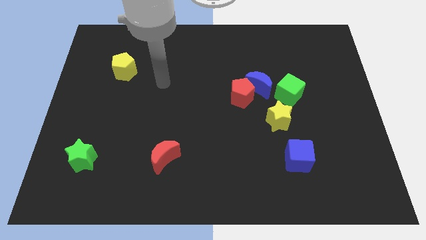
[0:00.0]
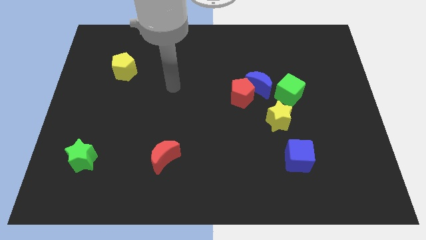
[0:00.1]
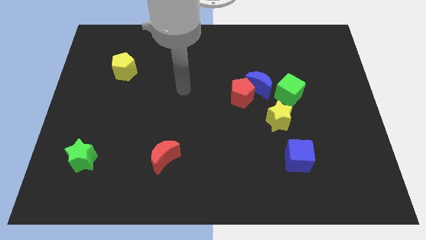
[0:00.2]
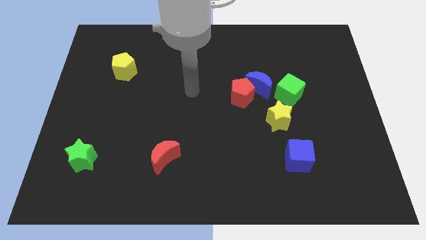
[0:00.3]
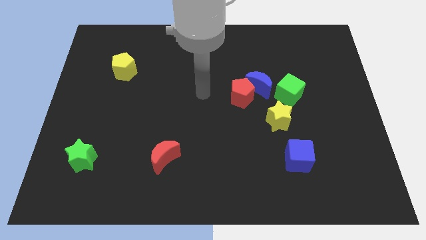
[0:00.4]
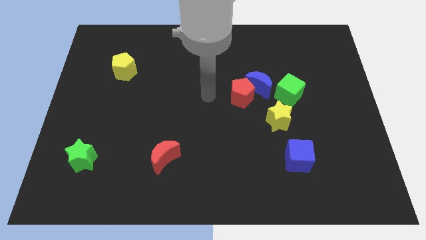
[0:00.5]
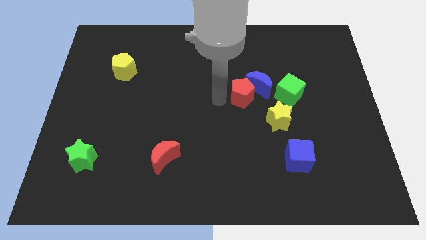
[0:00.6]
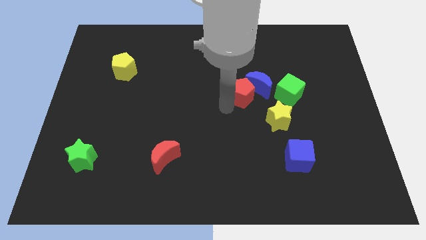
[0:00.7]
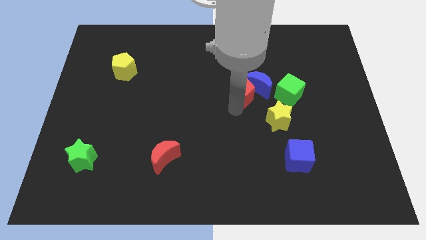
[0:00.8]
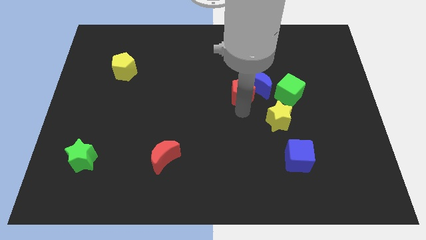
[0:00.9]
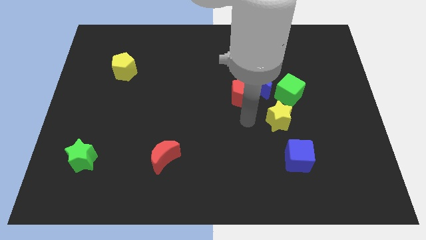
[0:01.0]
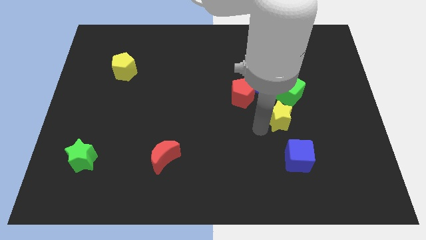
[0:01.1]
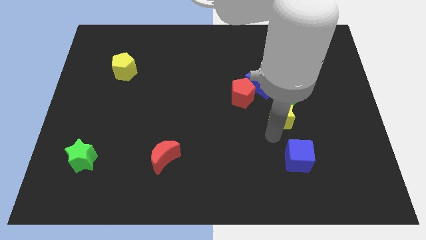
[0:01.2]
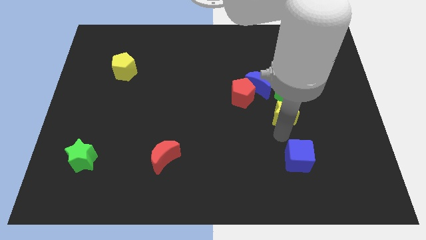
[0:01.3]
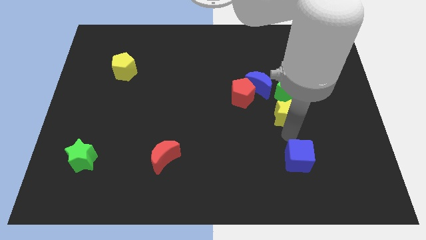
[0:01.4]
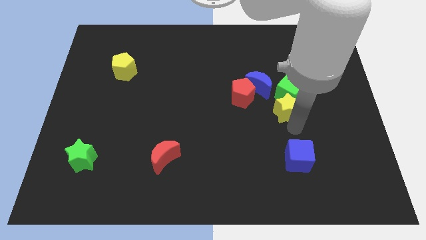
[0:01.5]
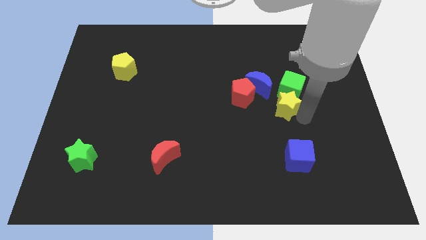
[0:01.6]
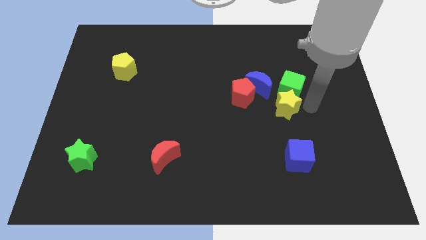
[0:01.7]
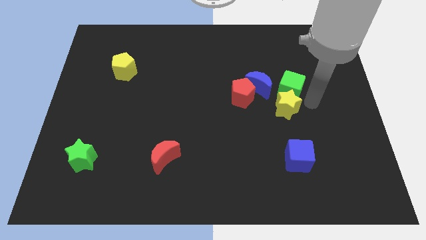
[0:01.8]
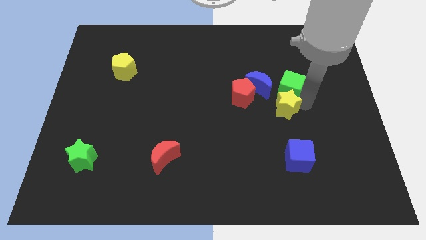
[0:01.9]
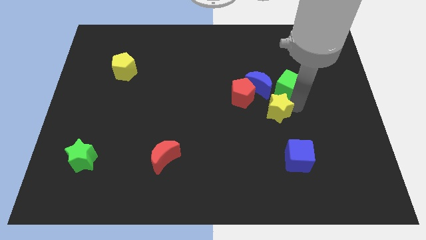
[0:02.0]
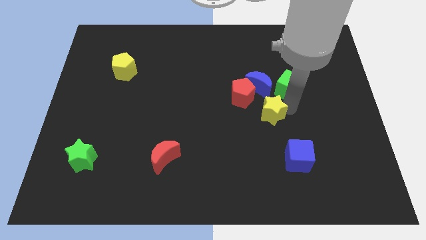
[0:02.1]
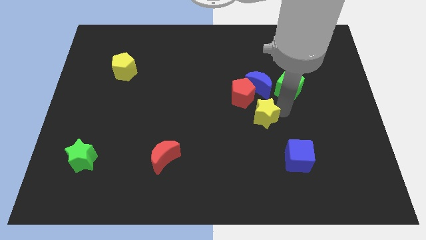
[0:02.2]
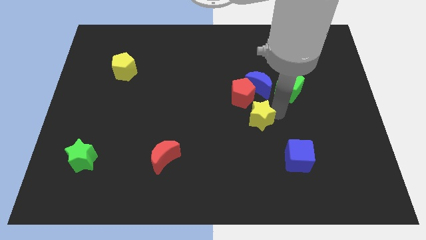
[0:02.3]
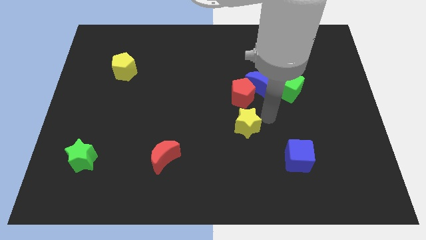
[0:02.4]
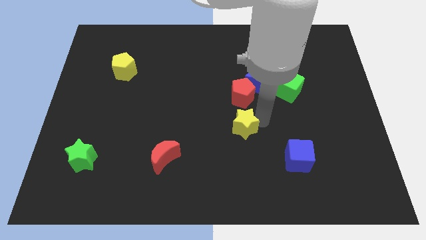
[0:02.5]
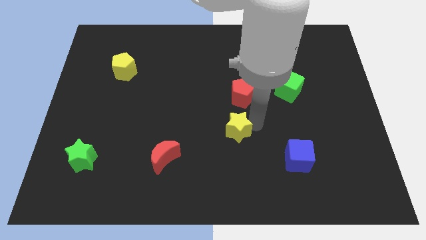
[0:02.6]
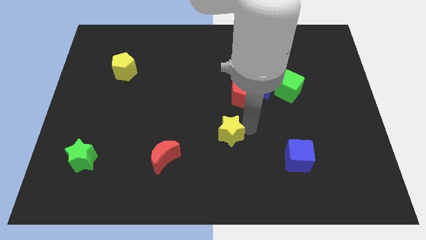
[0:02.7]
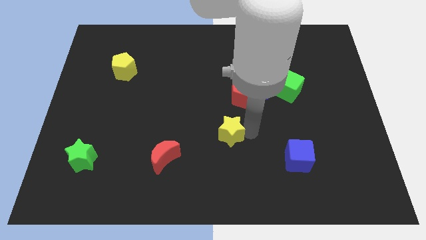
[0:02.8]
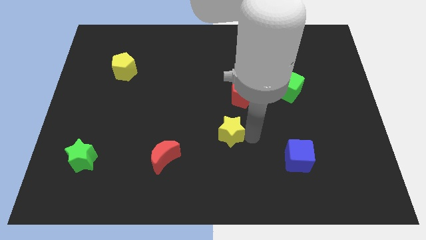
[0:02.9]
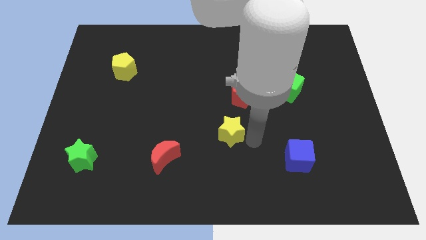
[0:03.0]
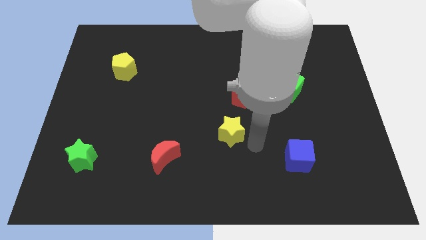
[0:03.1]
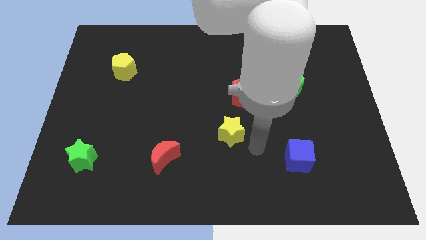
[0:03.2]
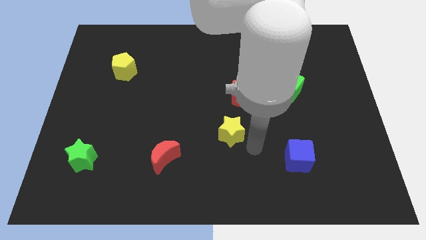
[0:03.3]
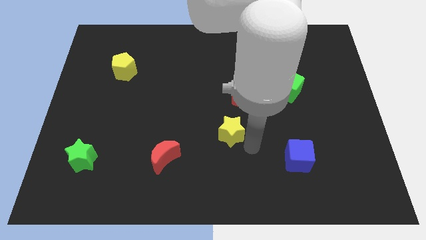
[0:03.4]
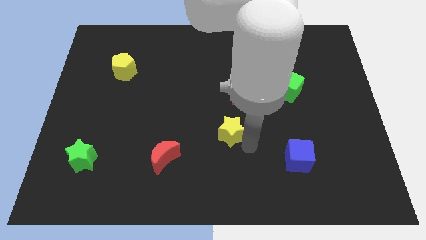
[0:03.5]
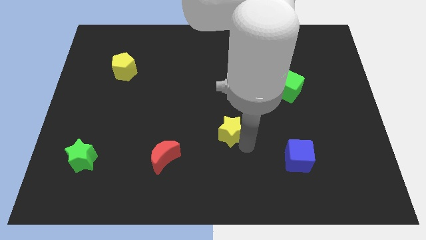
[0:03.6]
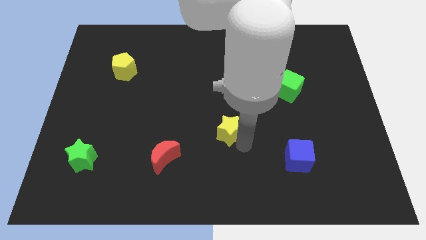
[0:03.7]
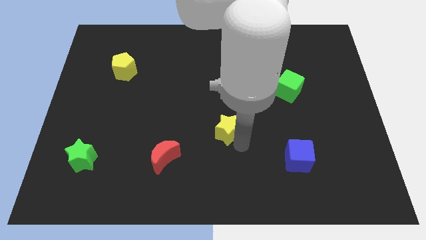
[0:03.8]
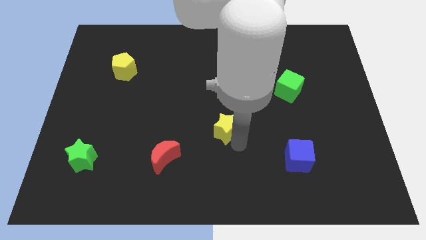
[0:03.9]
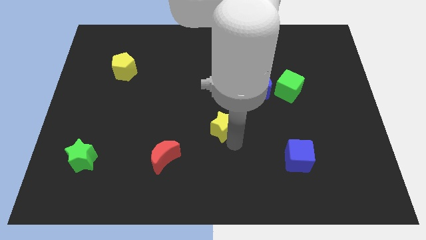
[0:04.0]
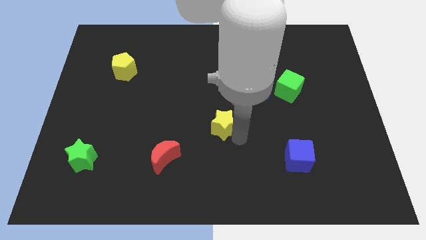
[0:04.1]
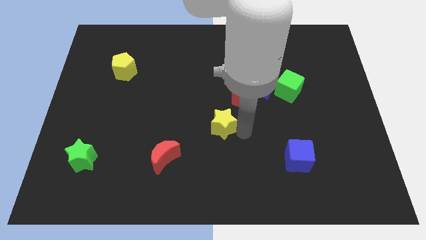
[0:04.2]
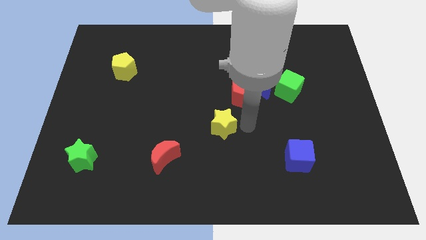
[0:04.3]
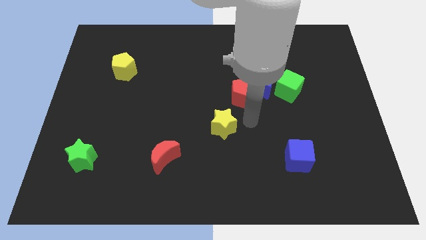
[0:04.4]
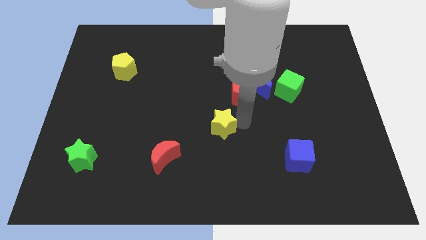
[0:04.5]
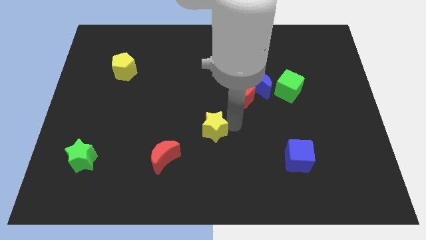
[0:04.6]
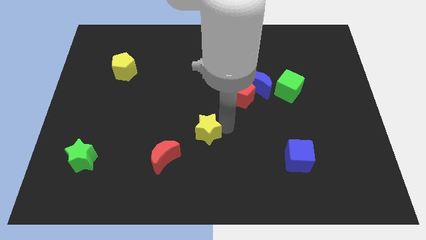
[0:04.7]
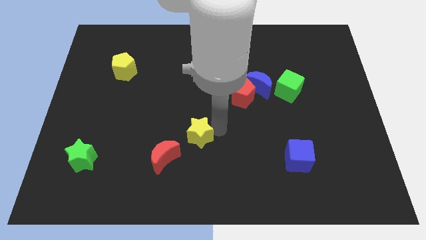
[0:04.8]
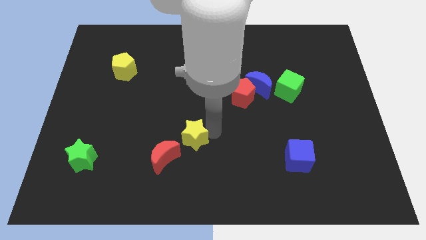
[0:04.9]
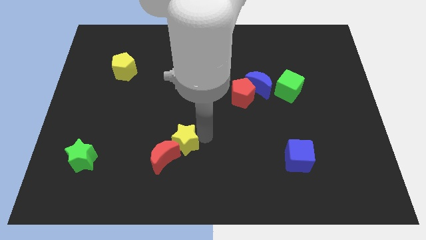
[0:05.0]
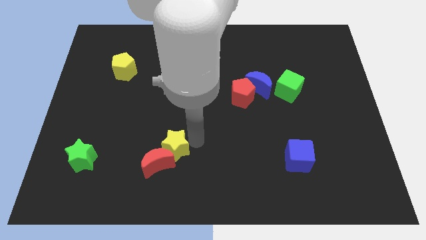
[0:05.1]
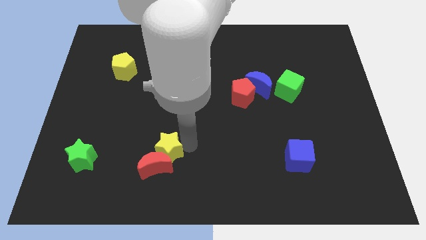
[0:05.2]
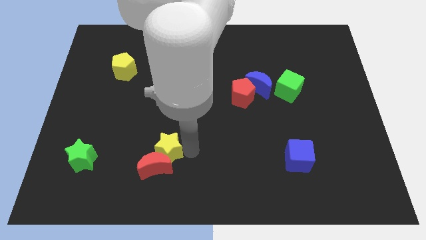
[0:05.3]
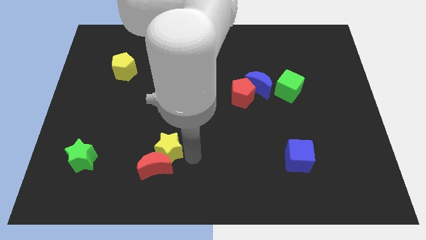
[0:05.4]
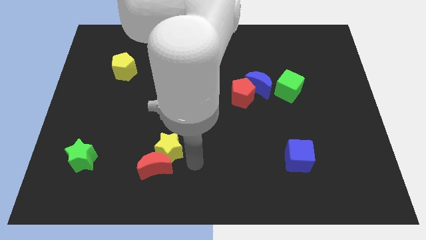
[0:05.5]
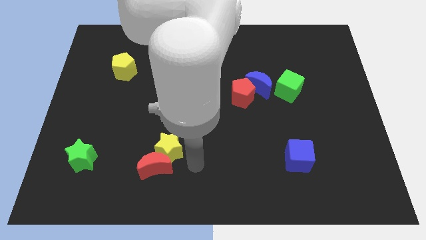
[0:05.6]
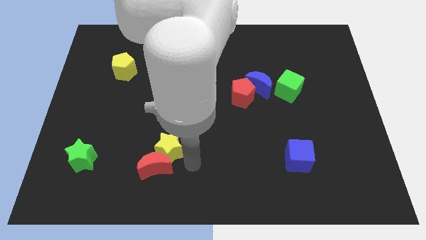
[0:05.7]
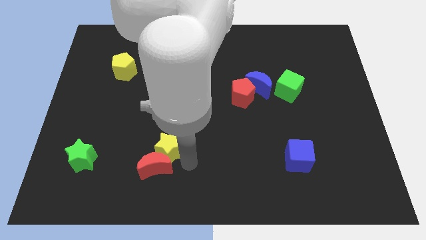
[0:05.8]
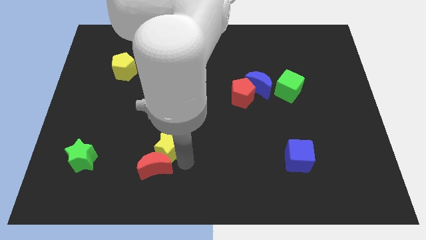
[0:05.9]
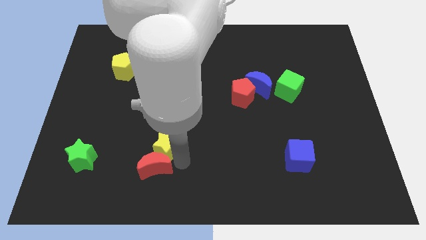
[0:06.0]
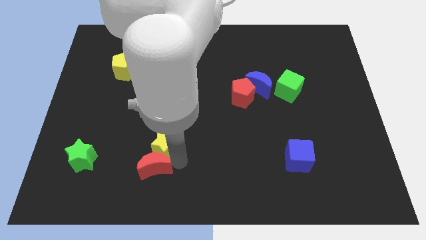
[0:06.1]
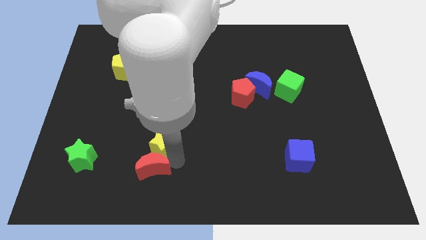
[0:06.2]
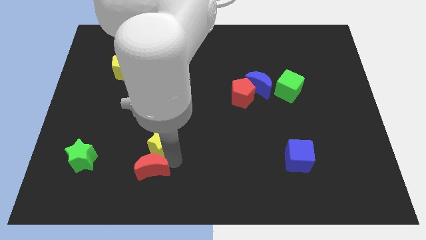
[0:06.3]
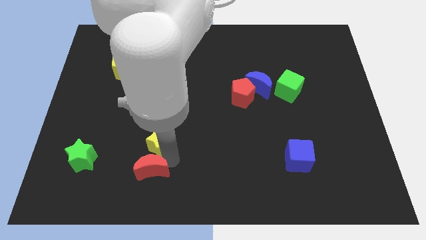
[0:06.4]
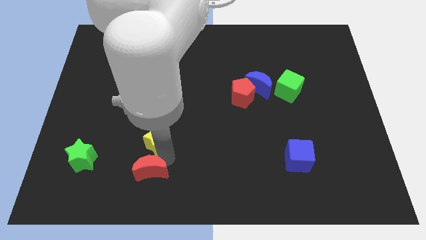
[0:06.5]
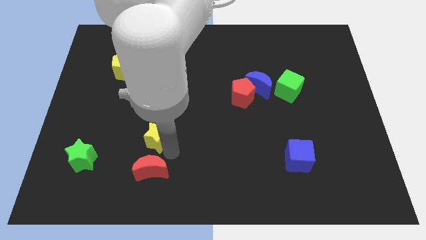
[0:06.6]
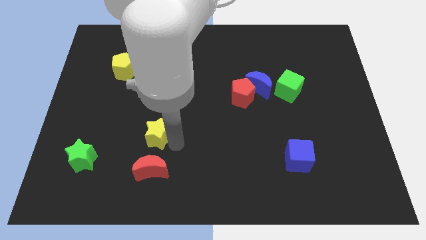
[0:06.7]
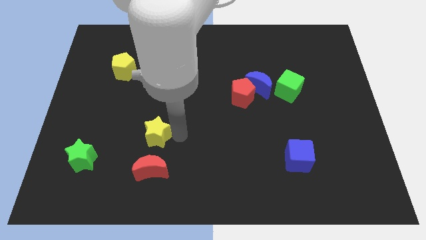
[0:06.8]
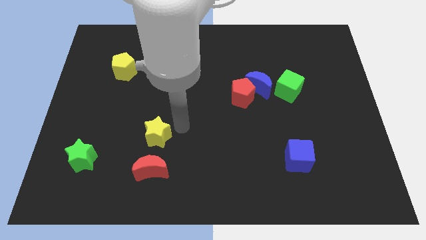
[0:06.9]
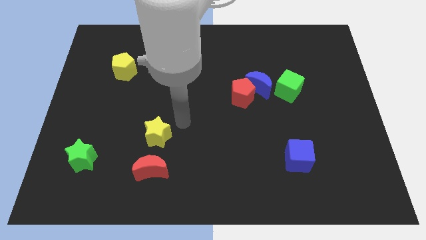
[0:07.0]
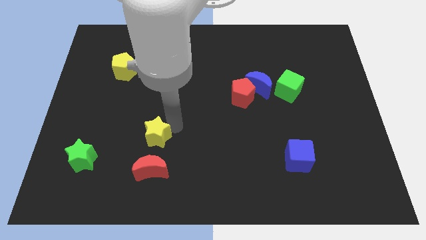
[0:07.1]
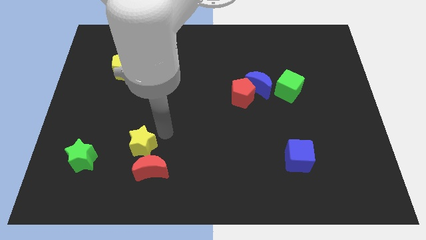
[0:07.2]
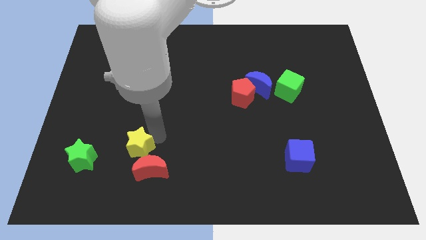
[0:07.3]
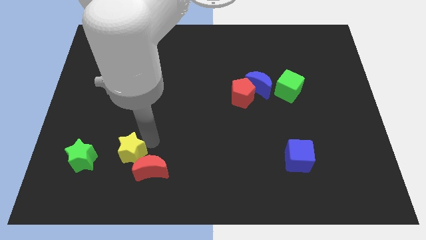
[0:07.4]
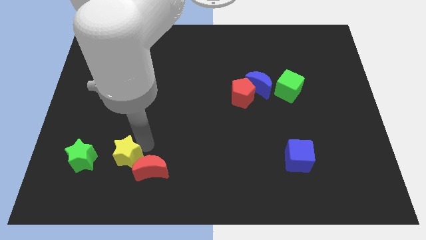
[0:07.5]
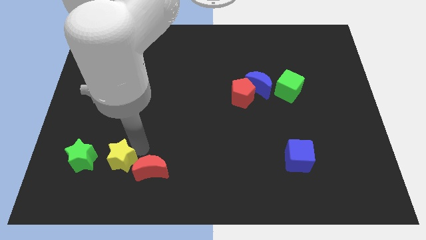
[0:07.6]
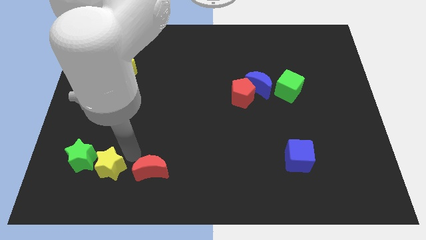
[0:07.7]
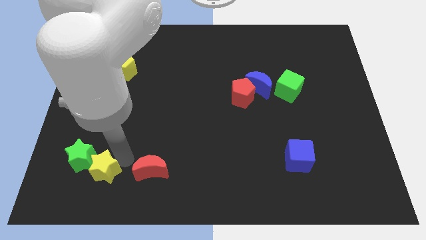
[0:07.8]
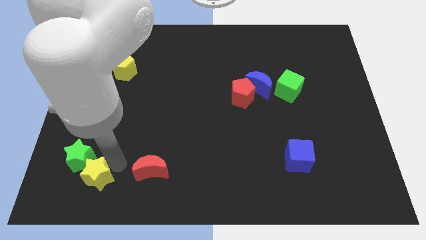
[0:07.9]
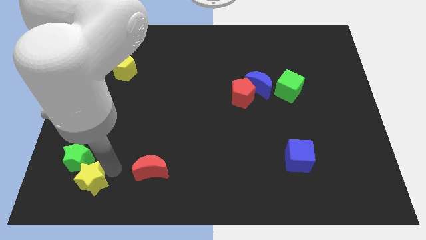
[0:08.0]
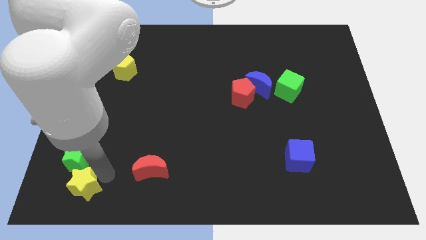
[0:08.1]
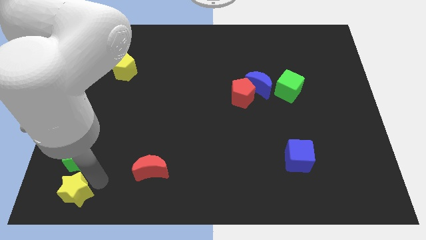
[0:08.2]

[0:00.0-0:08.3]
move the yellow star to the bottom left of the board
